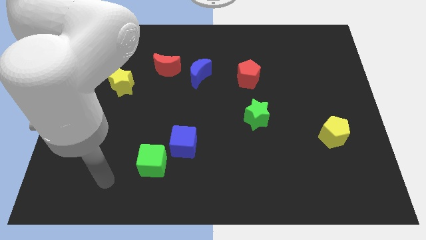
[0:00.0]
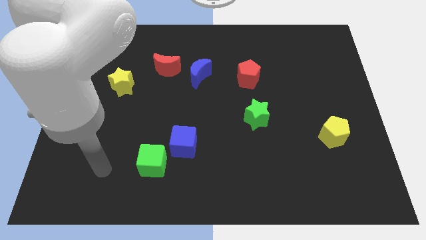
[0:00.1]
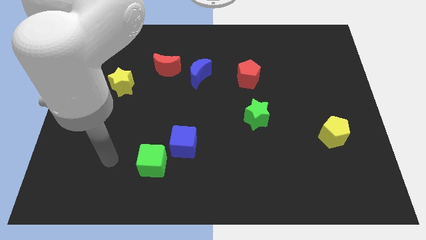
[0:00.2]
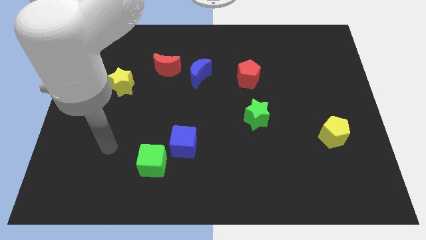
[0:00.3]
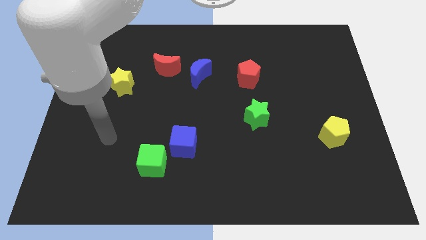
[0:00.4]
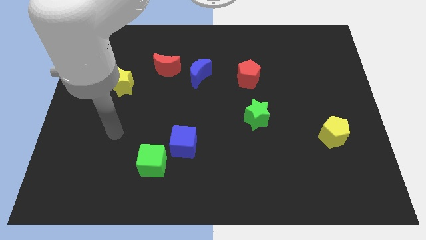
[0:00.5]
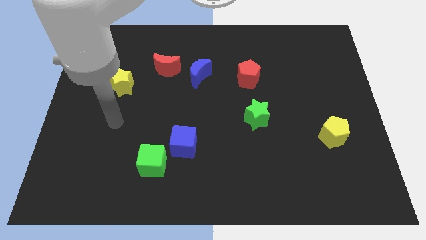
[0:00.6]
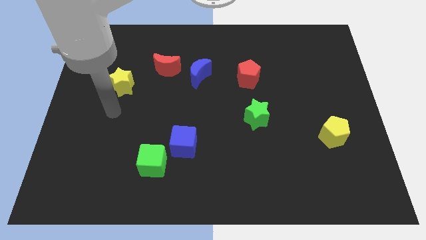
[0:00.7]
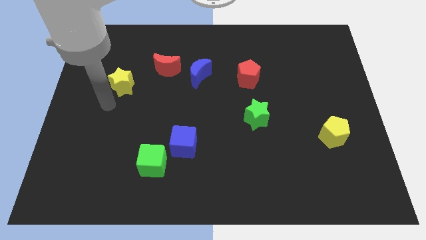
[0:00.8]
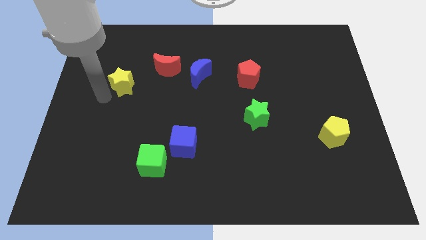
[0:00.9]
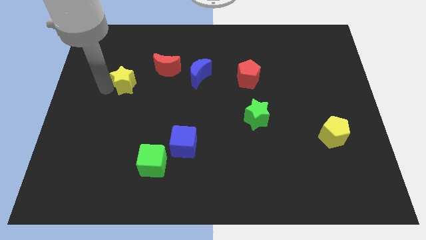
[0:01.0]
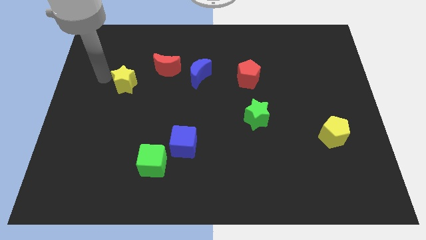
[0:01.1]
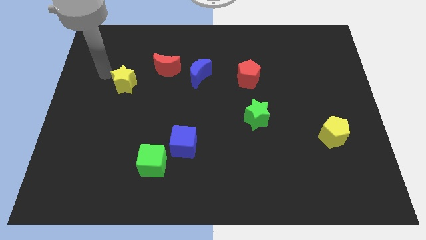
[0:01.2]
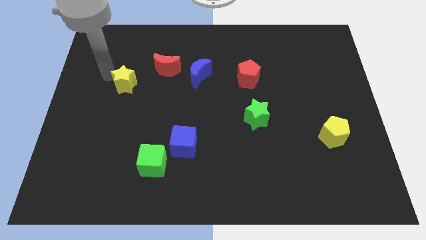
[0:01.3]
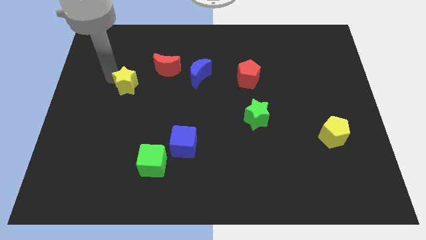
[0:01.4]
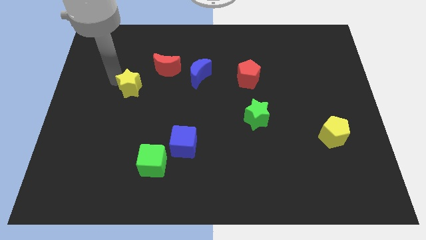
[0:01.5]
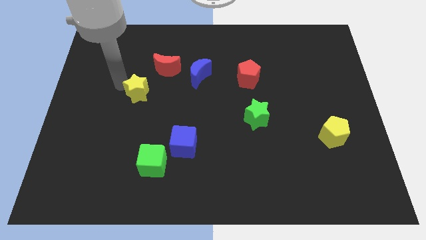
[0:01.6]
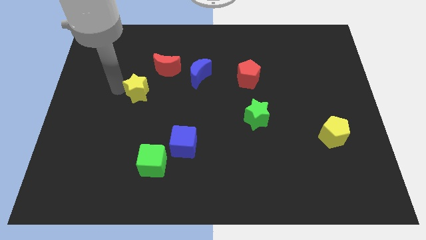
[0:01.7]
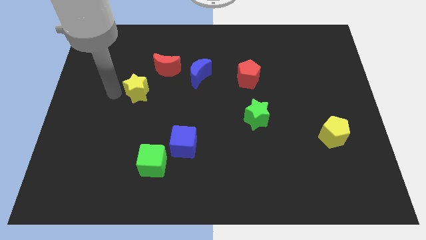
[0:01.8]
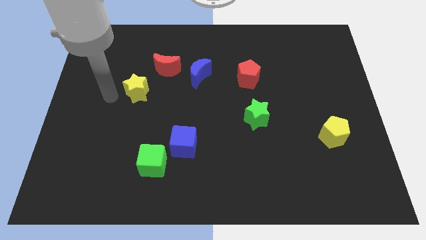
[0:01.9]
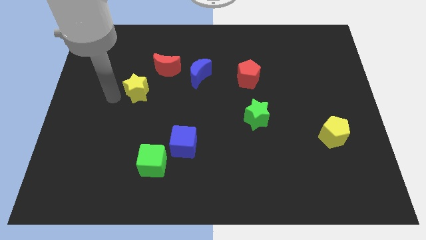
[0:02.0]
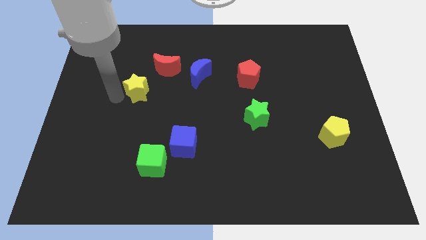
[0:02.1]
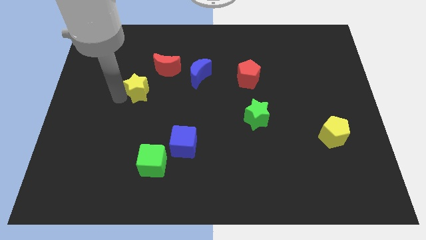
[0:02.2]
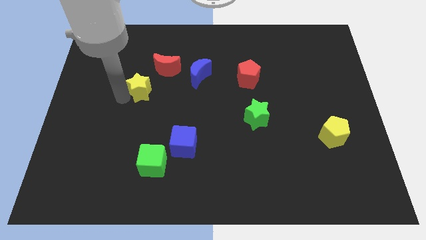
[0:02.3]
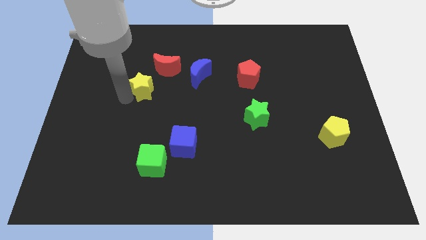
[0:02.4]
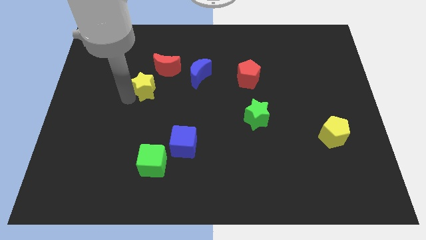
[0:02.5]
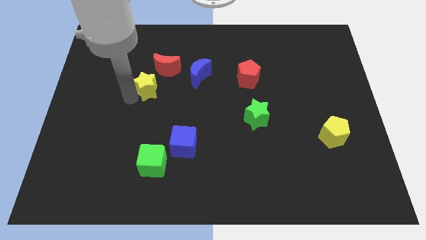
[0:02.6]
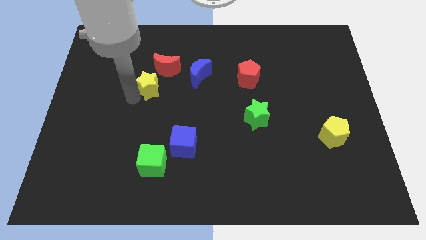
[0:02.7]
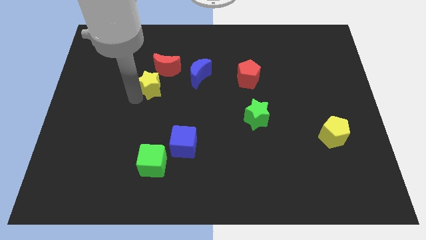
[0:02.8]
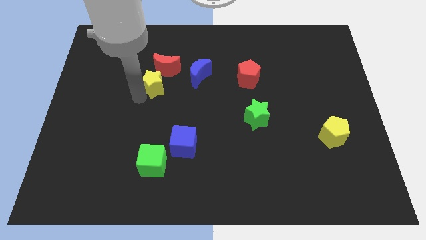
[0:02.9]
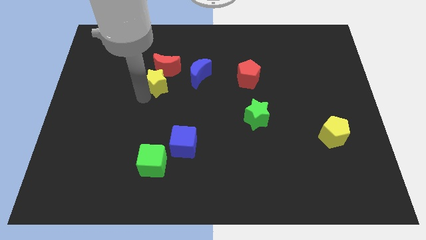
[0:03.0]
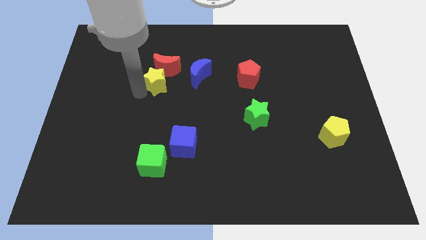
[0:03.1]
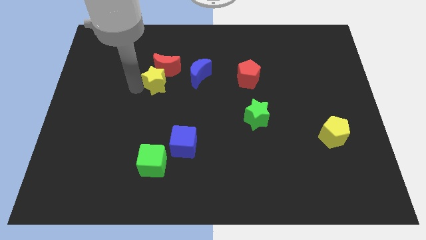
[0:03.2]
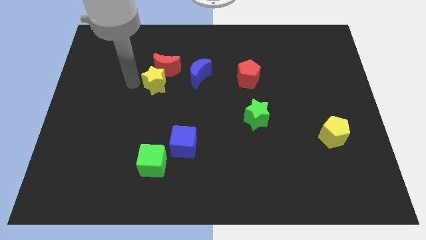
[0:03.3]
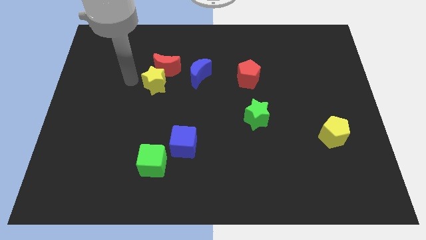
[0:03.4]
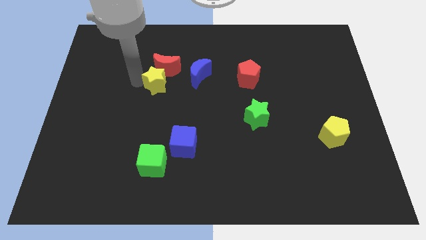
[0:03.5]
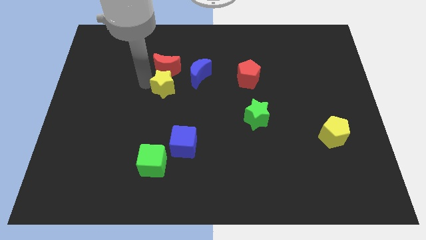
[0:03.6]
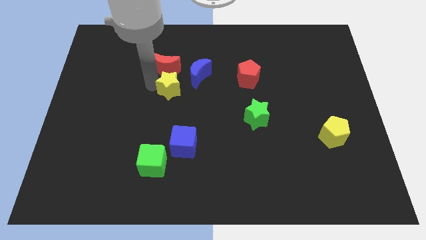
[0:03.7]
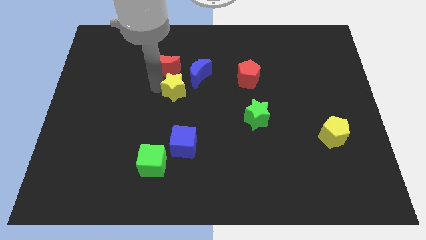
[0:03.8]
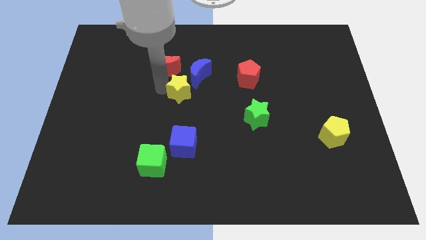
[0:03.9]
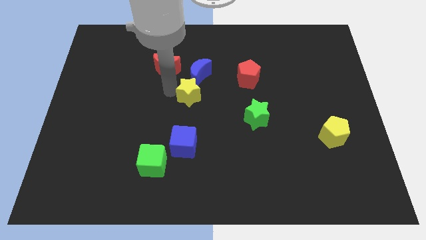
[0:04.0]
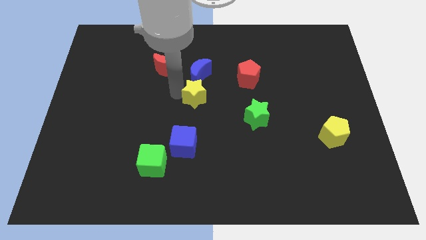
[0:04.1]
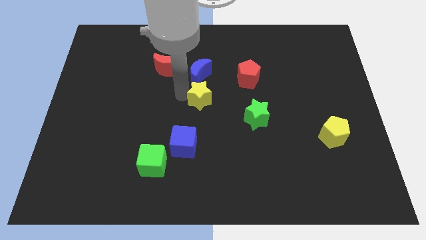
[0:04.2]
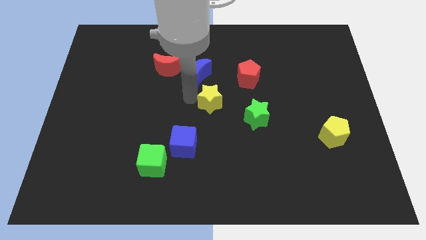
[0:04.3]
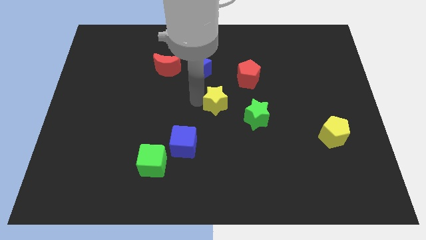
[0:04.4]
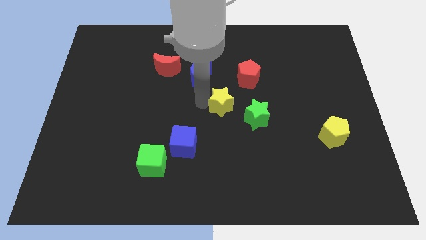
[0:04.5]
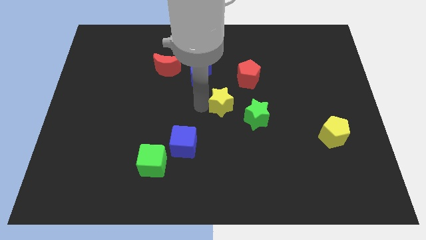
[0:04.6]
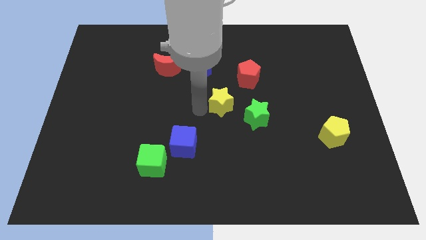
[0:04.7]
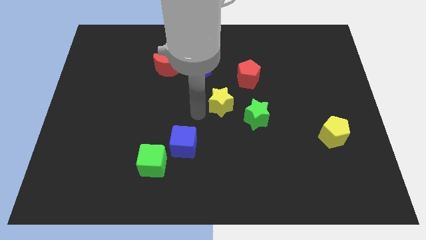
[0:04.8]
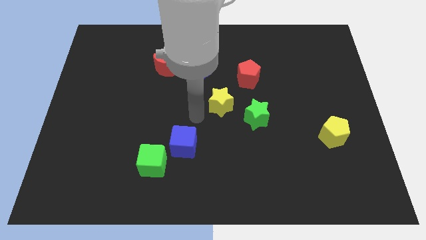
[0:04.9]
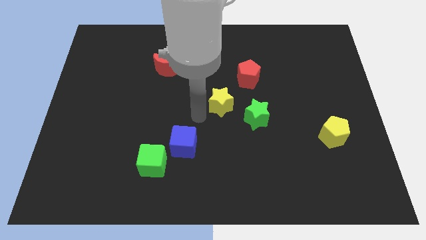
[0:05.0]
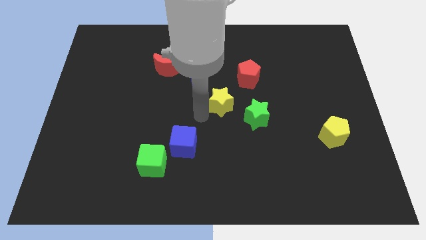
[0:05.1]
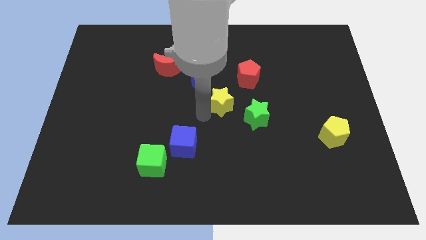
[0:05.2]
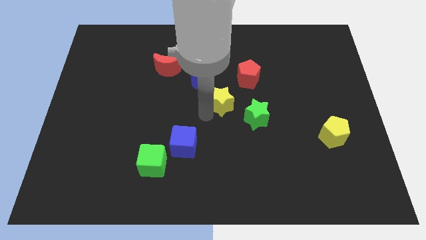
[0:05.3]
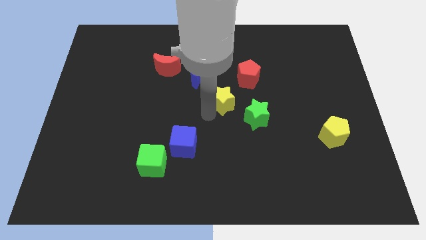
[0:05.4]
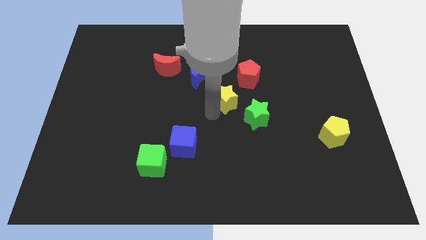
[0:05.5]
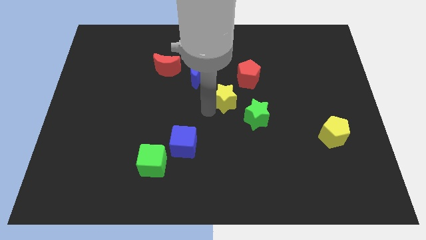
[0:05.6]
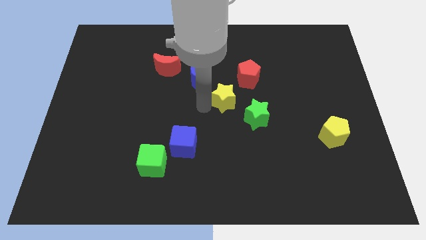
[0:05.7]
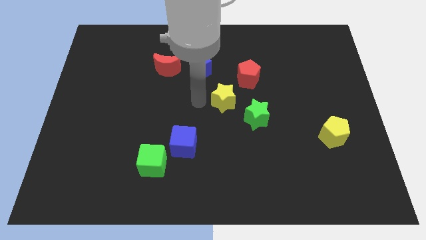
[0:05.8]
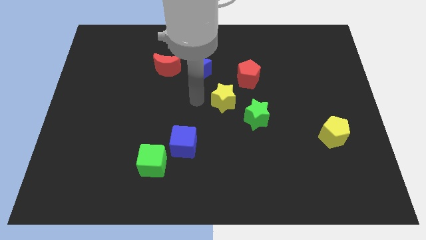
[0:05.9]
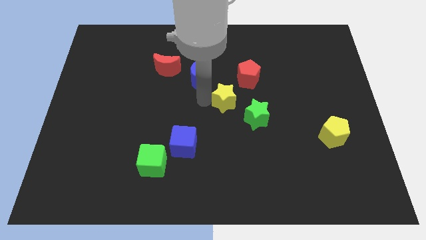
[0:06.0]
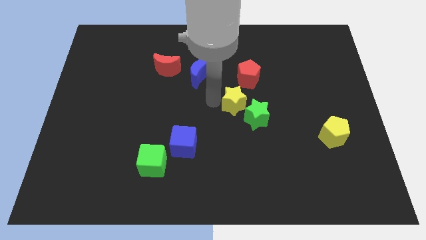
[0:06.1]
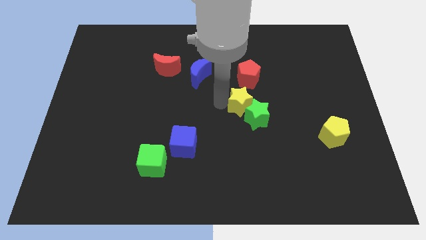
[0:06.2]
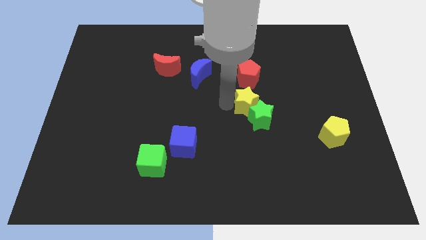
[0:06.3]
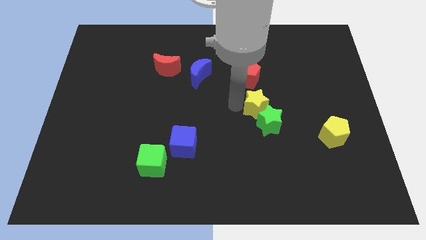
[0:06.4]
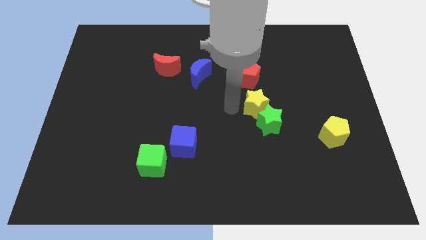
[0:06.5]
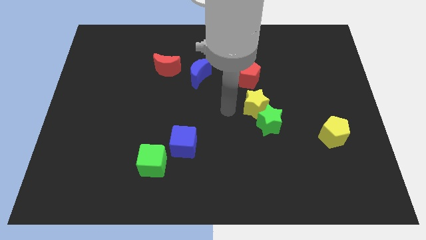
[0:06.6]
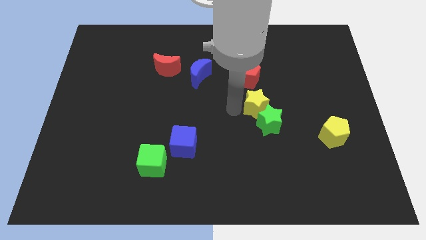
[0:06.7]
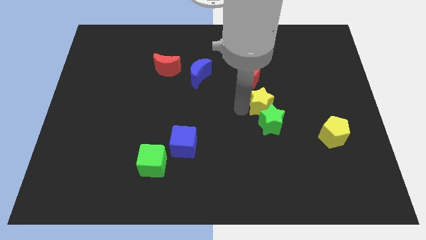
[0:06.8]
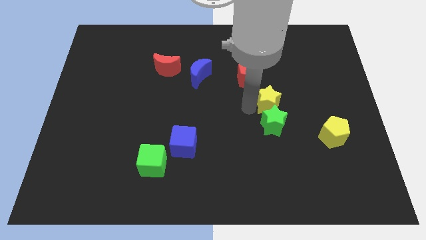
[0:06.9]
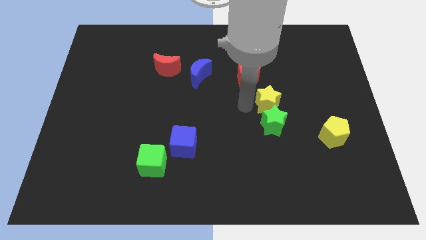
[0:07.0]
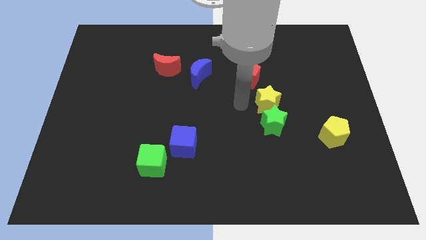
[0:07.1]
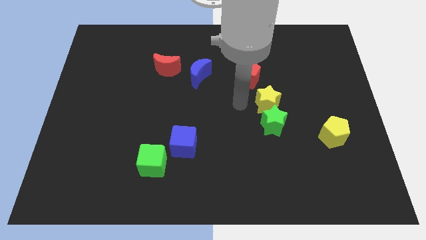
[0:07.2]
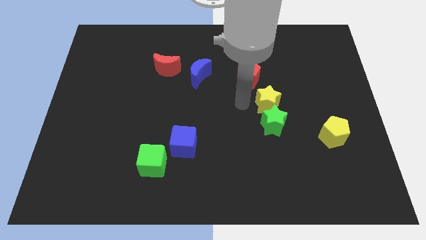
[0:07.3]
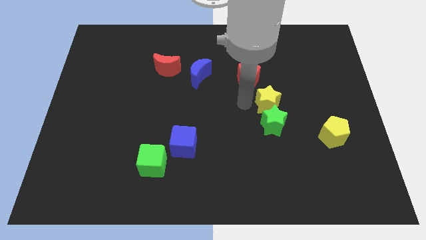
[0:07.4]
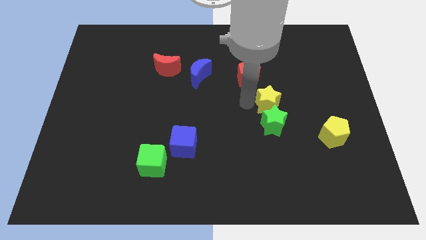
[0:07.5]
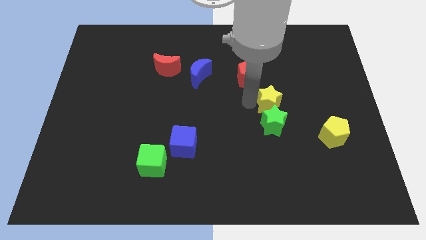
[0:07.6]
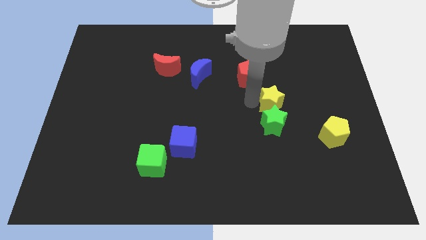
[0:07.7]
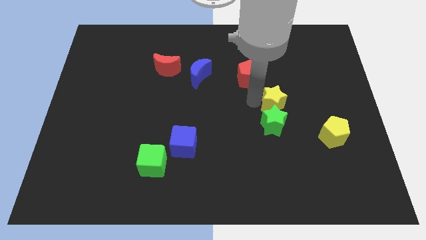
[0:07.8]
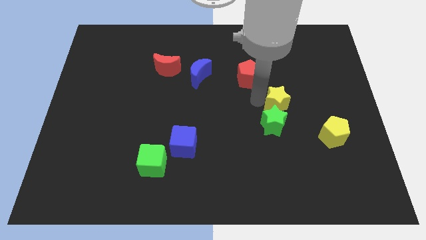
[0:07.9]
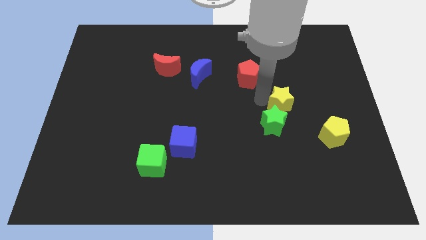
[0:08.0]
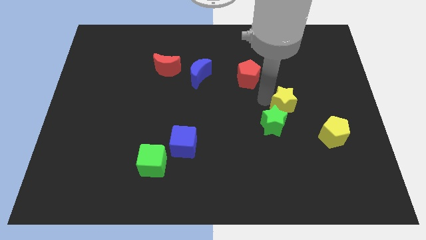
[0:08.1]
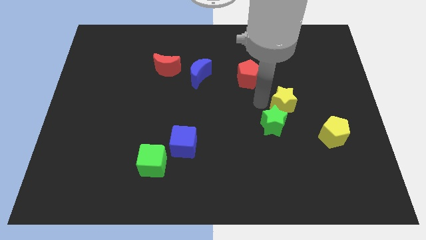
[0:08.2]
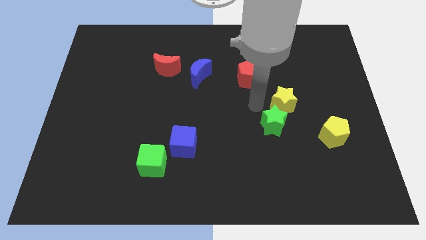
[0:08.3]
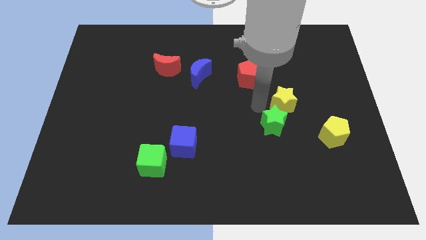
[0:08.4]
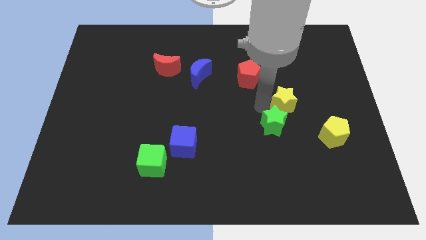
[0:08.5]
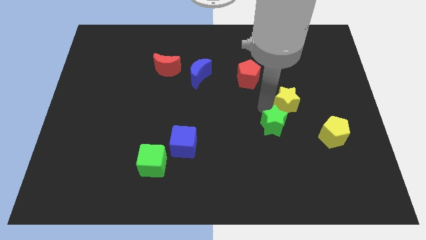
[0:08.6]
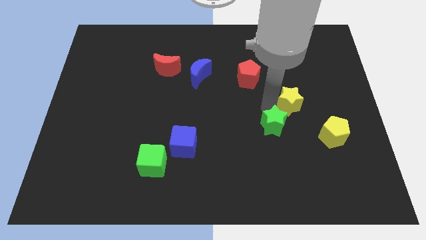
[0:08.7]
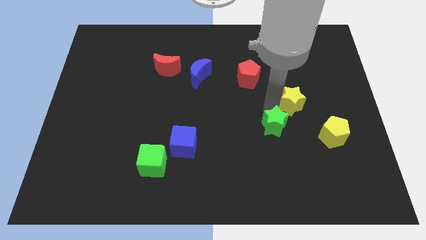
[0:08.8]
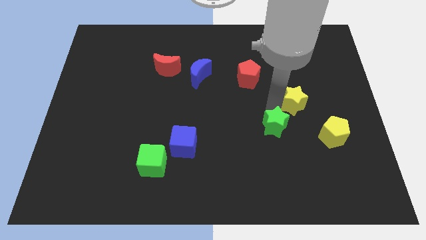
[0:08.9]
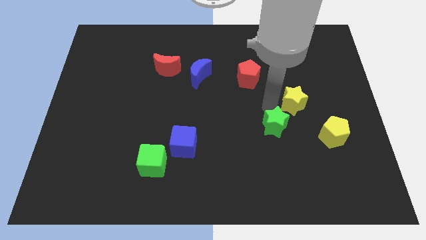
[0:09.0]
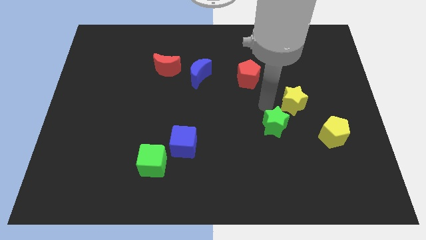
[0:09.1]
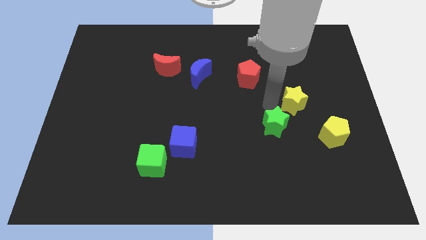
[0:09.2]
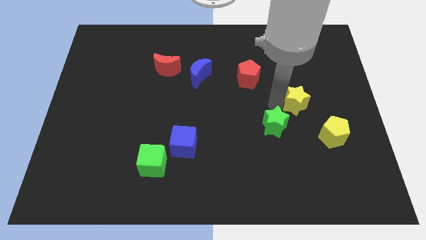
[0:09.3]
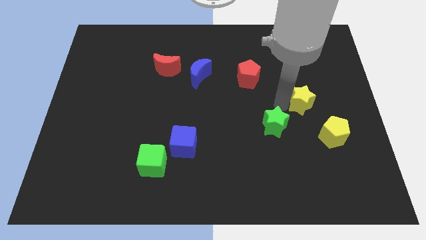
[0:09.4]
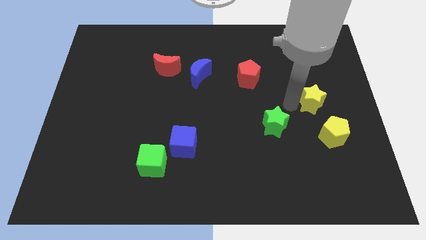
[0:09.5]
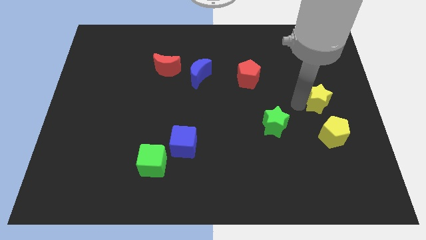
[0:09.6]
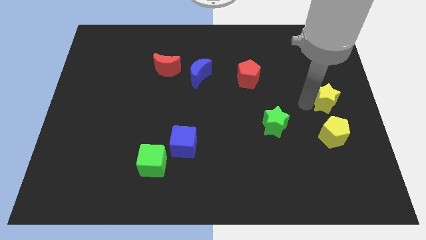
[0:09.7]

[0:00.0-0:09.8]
push the yellow star to the right side of the board
